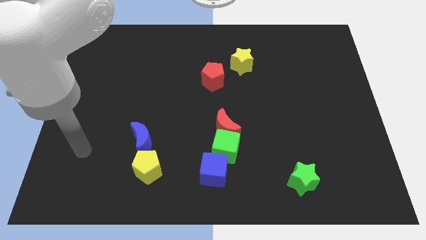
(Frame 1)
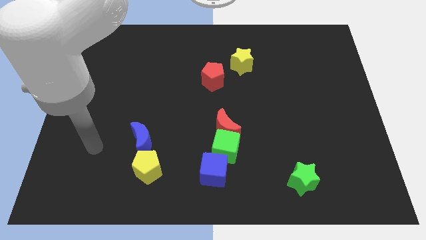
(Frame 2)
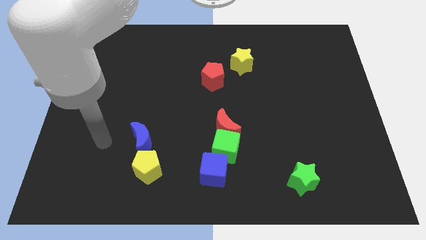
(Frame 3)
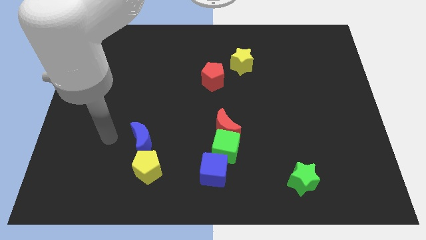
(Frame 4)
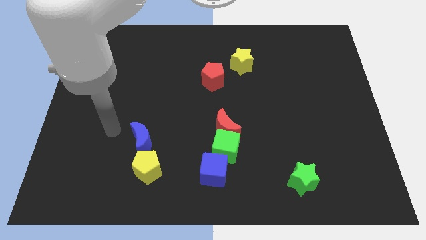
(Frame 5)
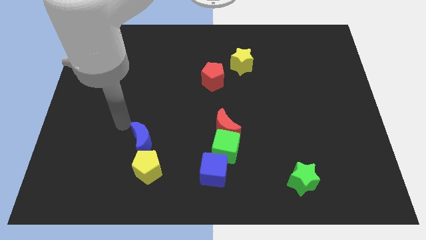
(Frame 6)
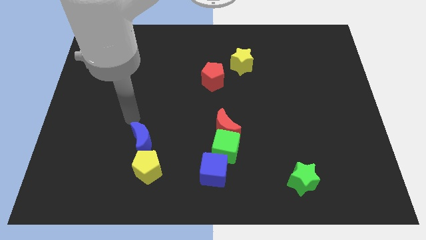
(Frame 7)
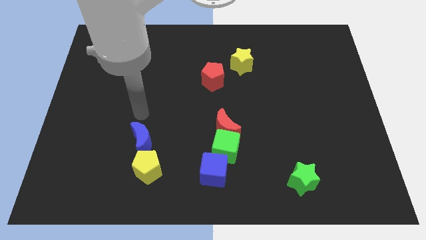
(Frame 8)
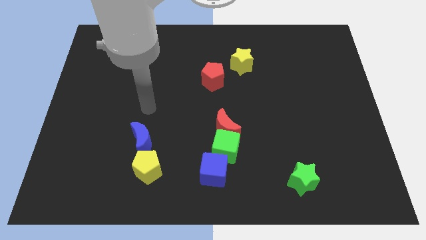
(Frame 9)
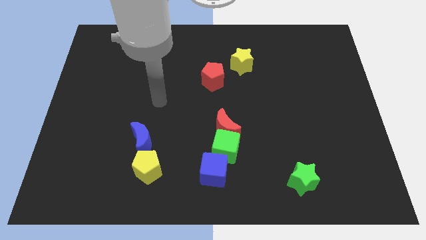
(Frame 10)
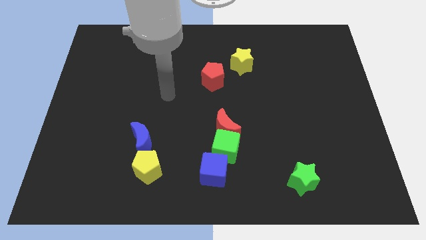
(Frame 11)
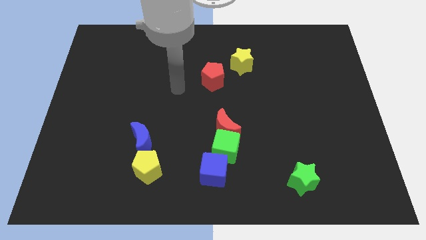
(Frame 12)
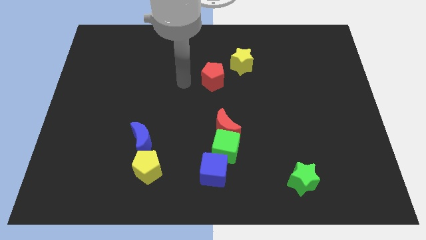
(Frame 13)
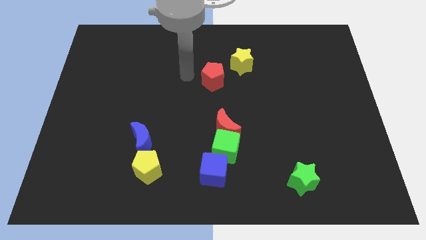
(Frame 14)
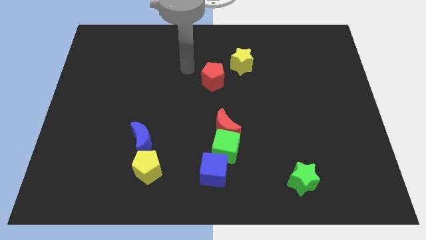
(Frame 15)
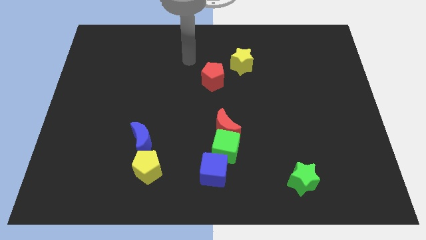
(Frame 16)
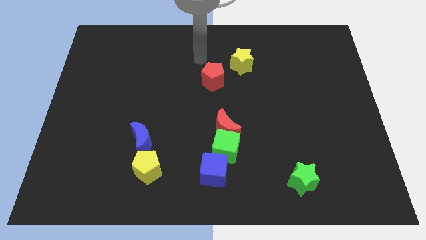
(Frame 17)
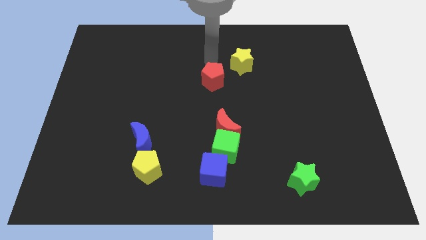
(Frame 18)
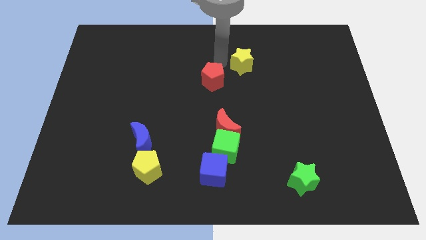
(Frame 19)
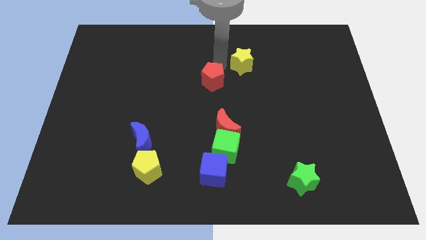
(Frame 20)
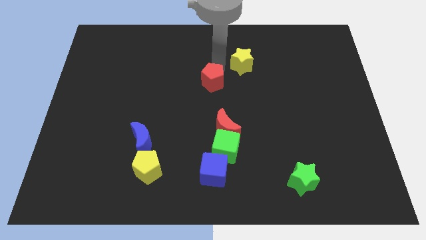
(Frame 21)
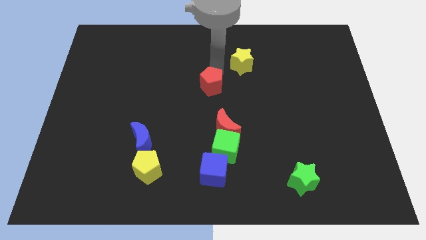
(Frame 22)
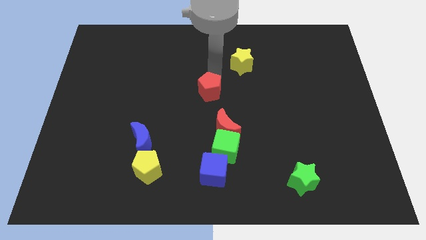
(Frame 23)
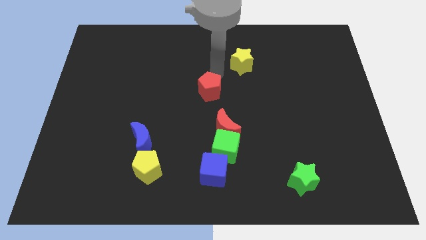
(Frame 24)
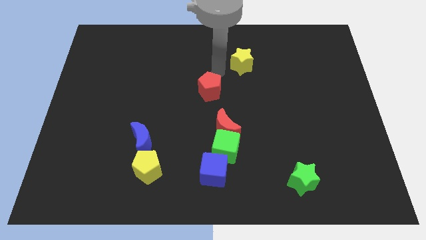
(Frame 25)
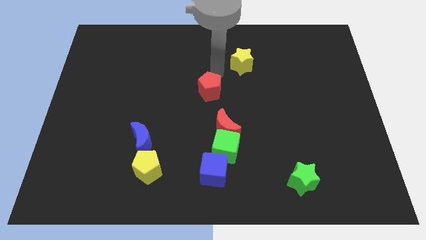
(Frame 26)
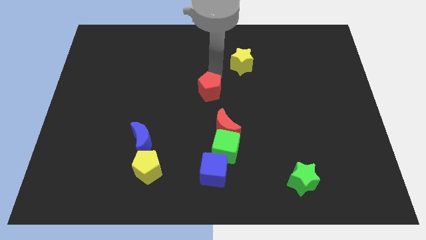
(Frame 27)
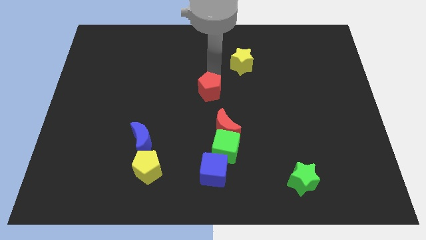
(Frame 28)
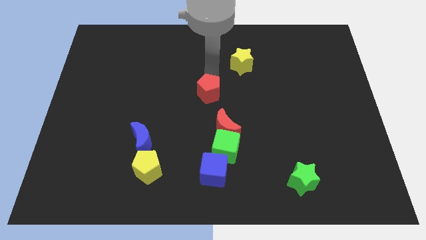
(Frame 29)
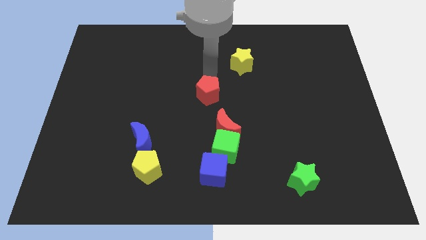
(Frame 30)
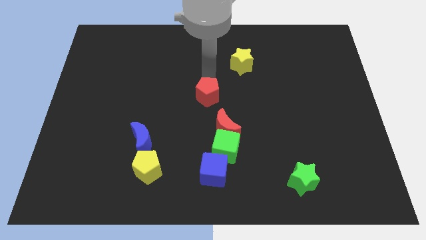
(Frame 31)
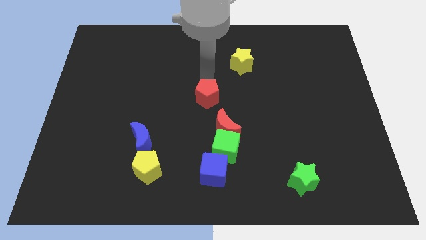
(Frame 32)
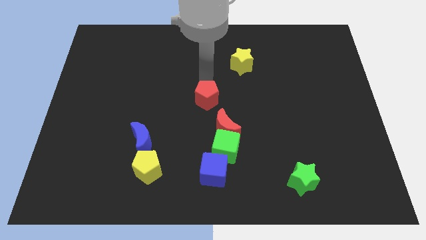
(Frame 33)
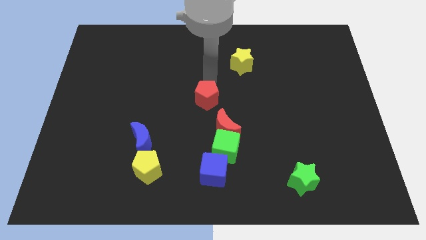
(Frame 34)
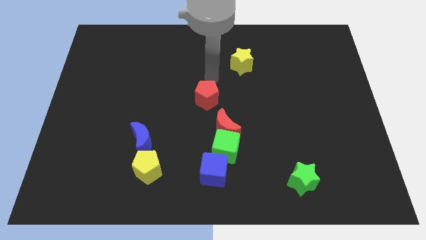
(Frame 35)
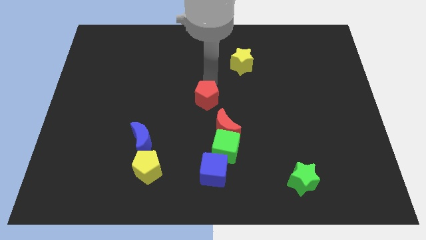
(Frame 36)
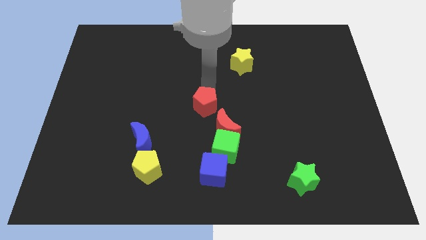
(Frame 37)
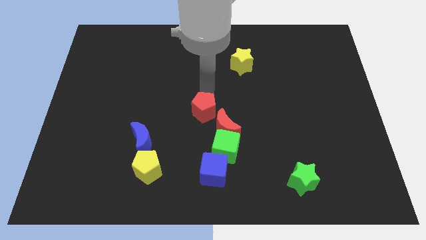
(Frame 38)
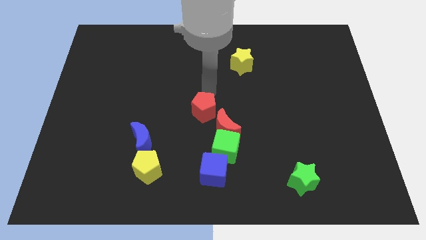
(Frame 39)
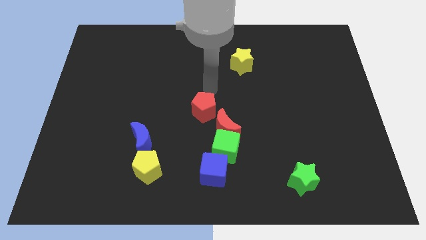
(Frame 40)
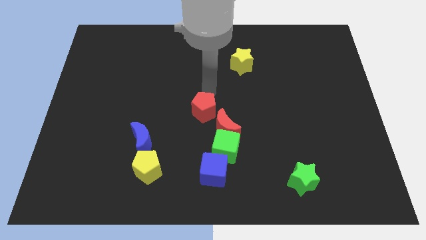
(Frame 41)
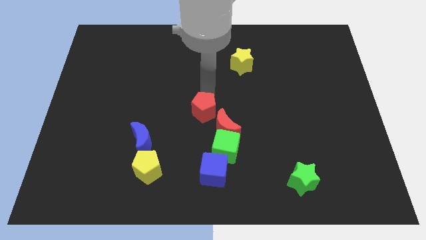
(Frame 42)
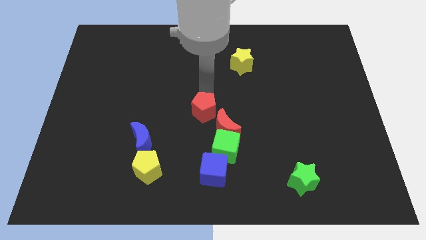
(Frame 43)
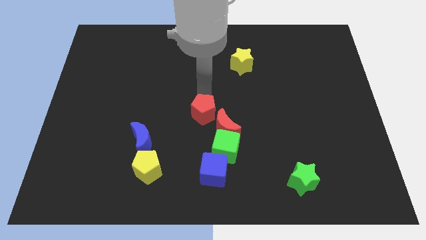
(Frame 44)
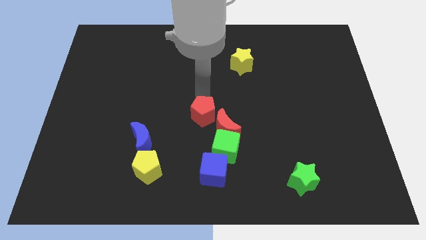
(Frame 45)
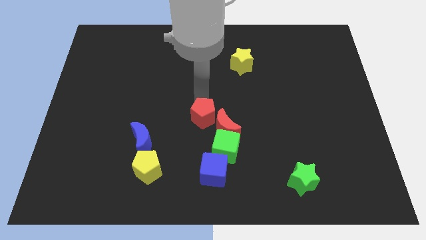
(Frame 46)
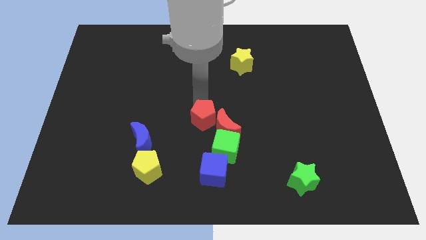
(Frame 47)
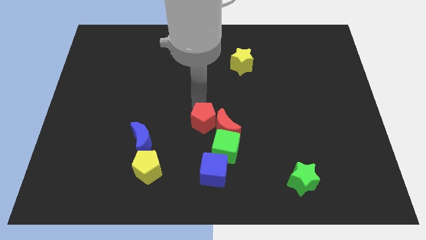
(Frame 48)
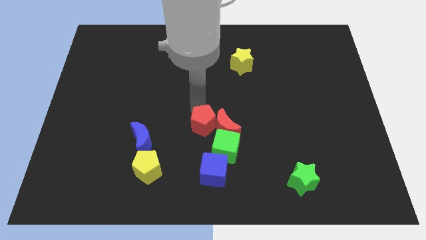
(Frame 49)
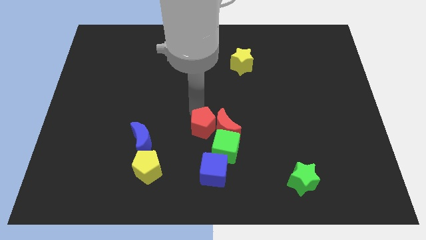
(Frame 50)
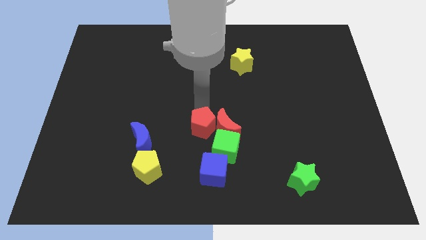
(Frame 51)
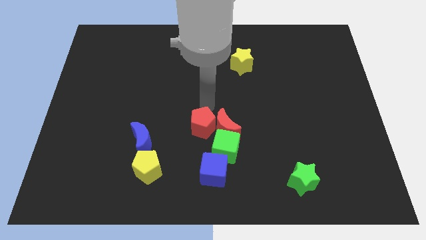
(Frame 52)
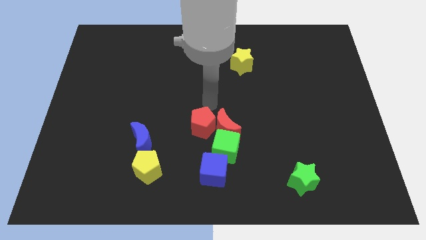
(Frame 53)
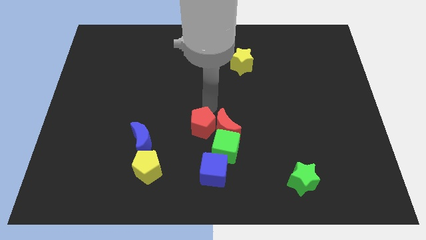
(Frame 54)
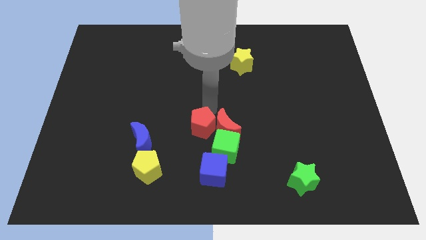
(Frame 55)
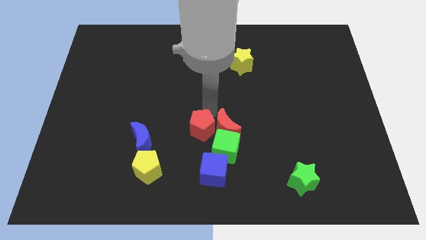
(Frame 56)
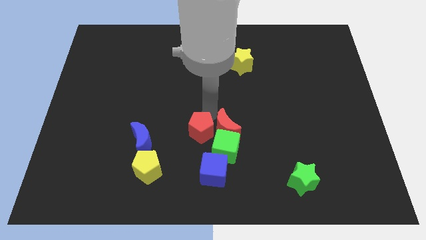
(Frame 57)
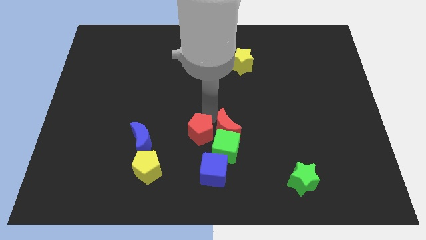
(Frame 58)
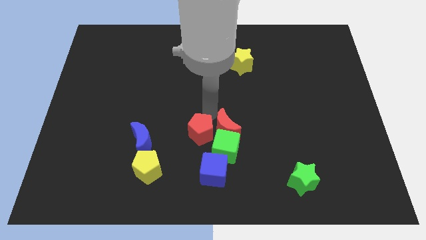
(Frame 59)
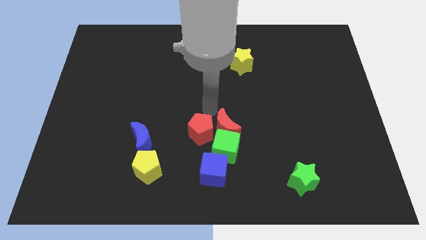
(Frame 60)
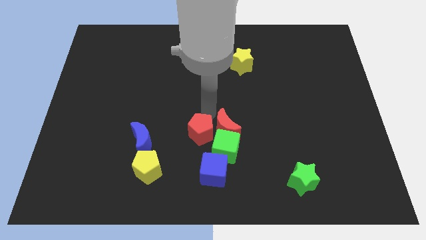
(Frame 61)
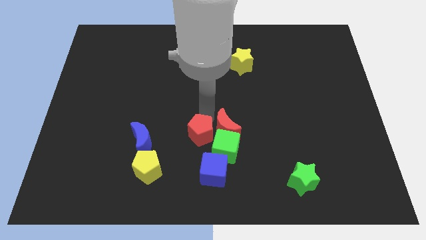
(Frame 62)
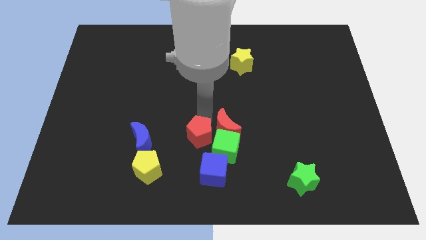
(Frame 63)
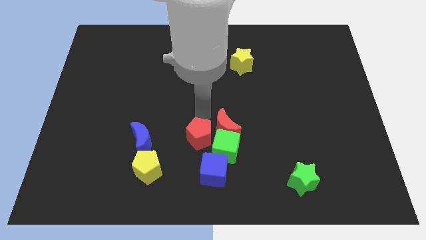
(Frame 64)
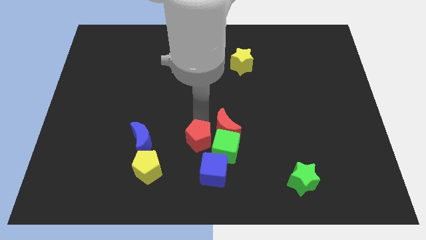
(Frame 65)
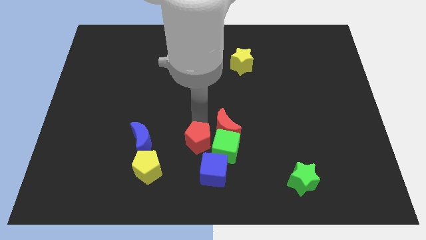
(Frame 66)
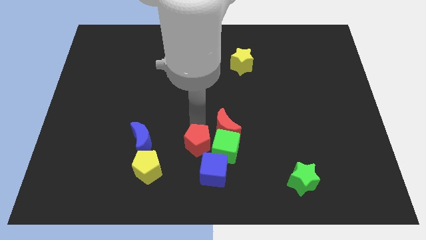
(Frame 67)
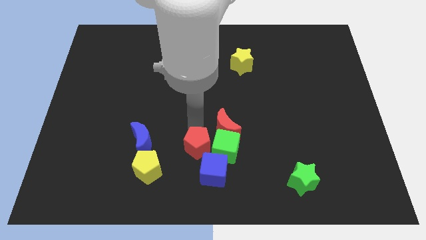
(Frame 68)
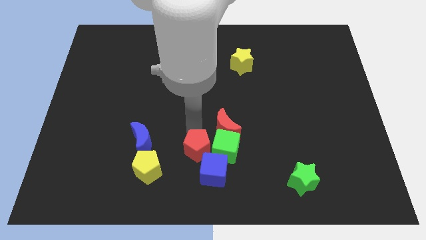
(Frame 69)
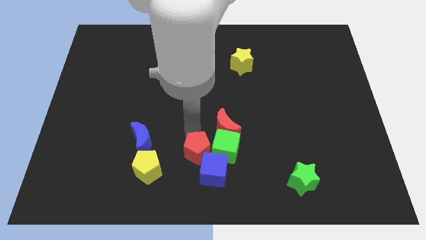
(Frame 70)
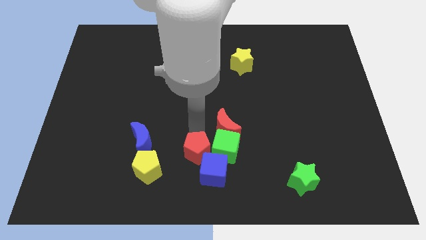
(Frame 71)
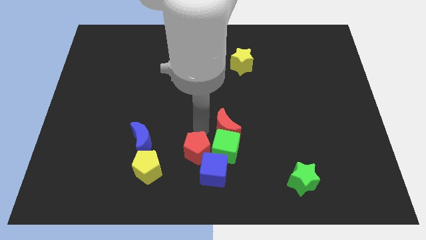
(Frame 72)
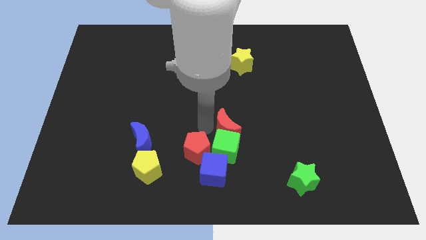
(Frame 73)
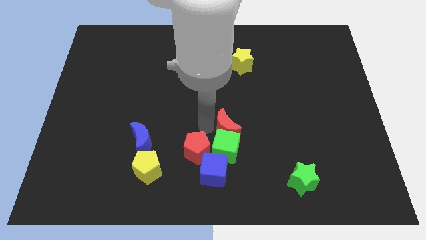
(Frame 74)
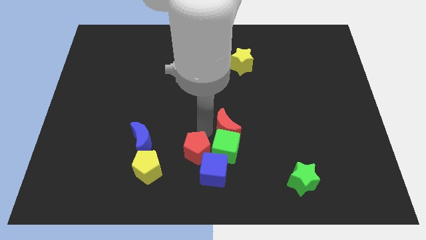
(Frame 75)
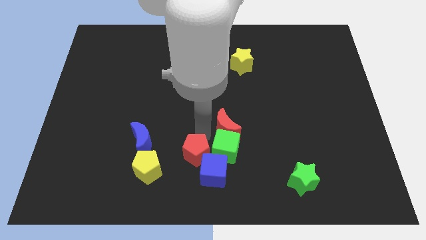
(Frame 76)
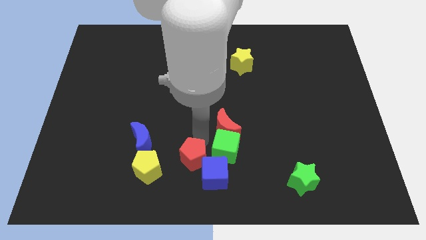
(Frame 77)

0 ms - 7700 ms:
push the red pentagon to the bottom side
